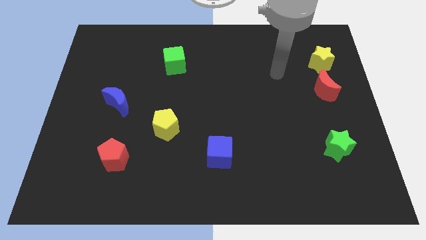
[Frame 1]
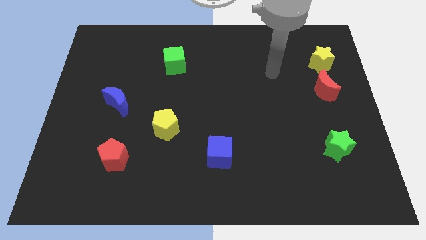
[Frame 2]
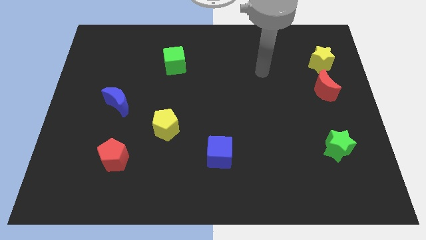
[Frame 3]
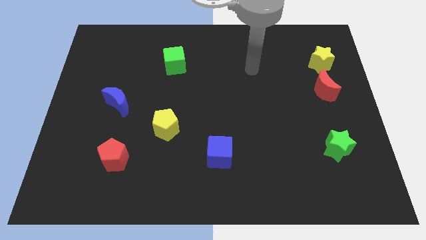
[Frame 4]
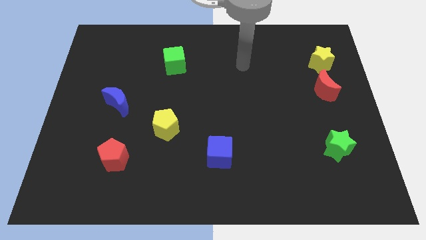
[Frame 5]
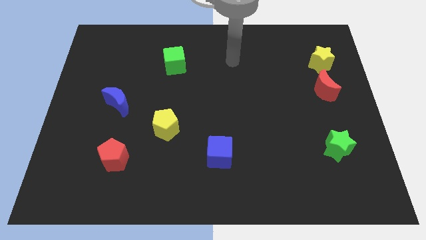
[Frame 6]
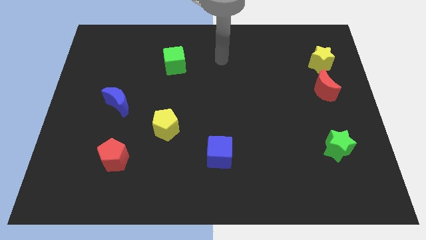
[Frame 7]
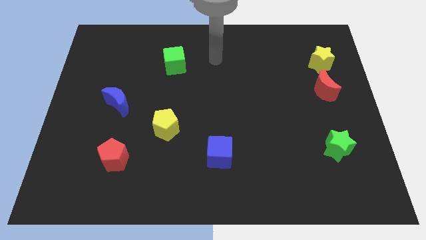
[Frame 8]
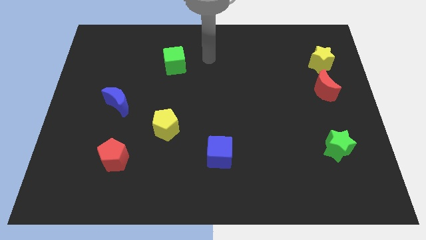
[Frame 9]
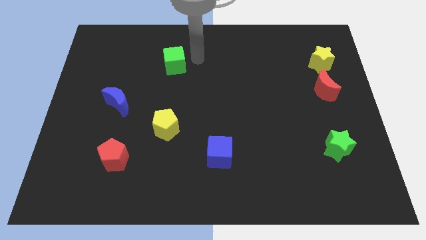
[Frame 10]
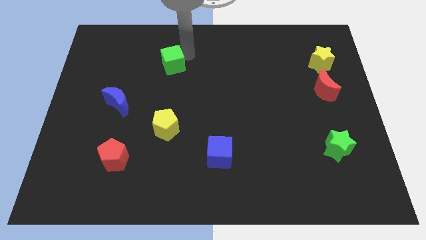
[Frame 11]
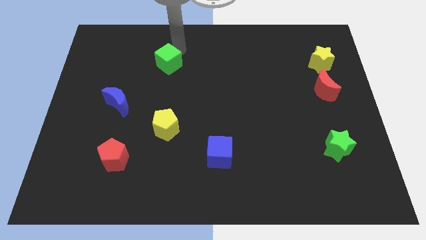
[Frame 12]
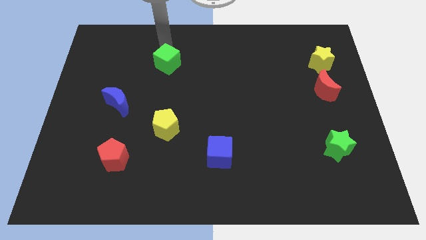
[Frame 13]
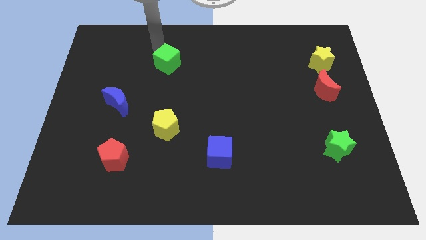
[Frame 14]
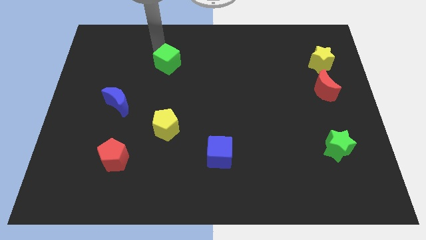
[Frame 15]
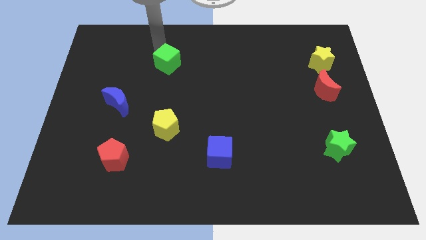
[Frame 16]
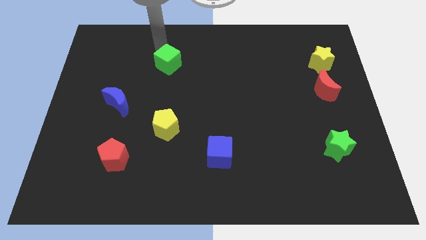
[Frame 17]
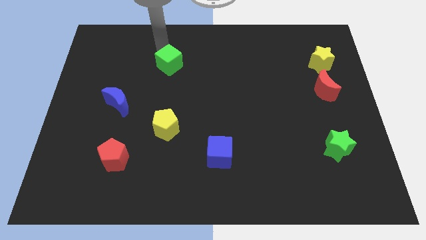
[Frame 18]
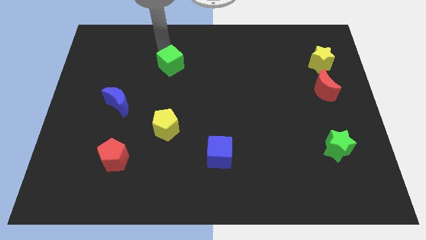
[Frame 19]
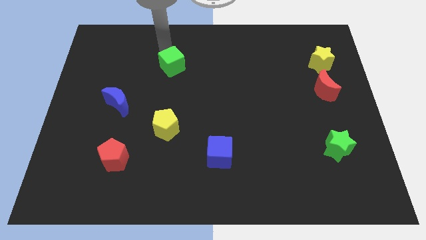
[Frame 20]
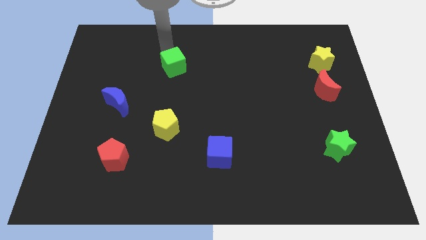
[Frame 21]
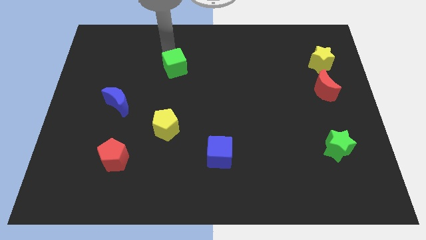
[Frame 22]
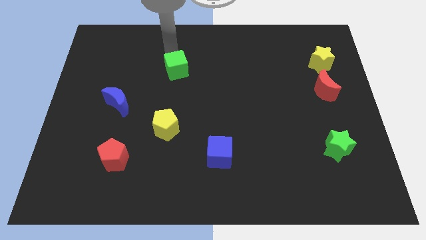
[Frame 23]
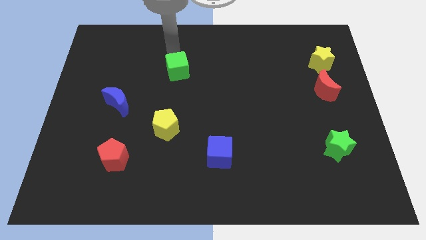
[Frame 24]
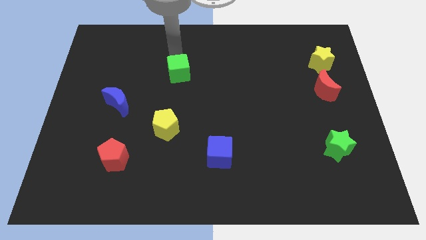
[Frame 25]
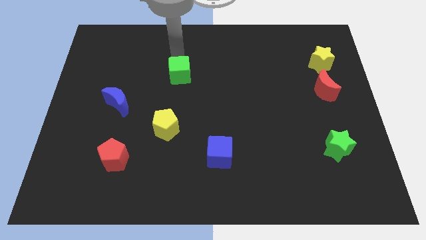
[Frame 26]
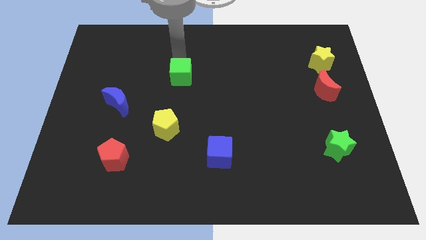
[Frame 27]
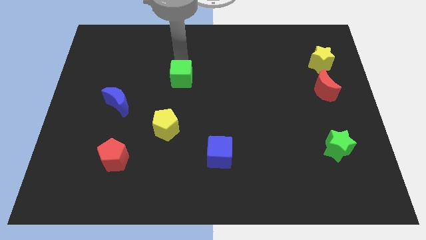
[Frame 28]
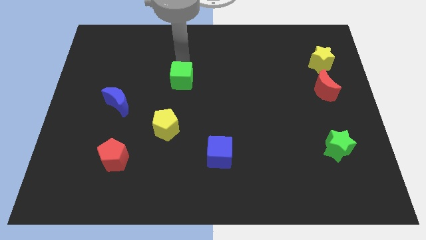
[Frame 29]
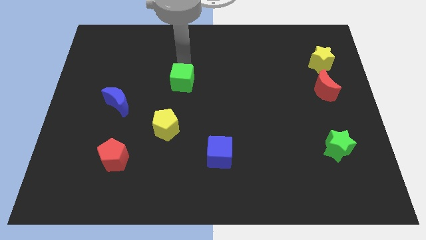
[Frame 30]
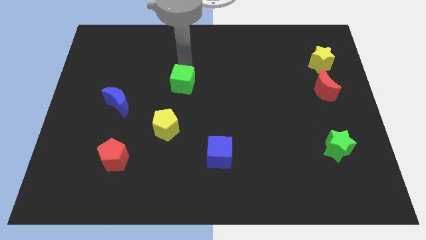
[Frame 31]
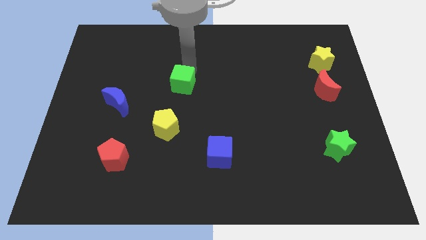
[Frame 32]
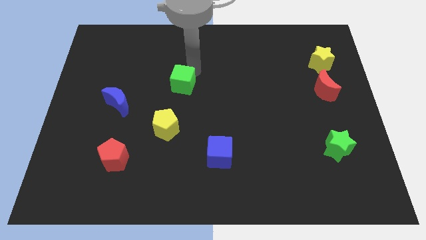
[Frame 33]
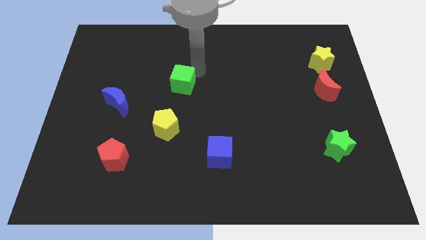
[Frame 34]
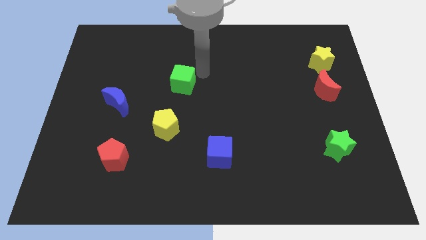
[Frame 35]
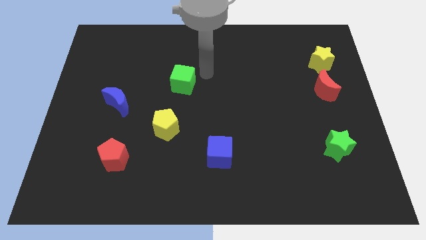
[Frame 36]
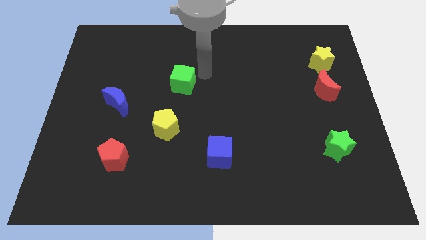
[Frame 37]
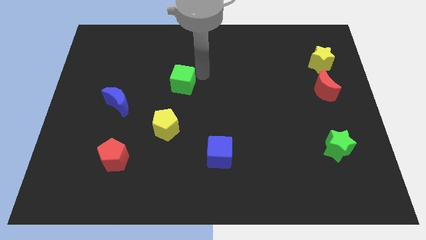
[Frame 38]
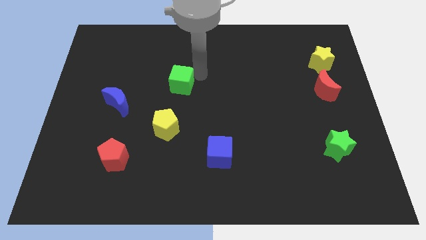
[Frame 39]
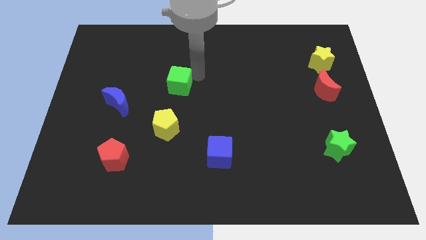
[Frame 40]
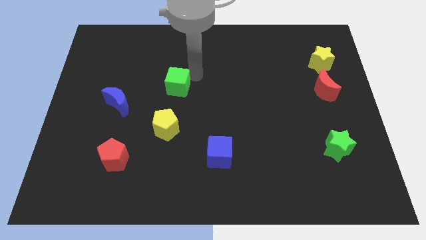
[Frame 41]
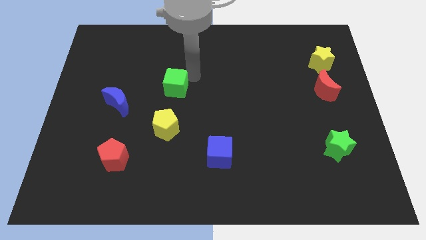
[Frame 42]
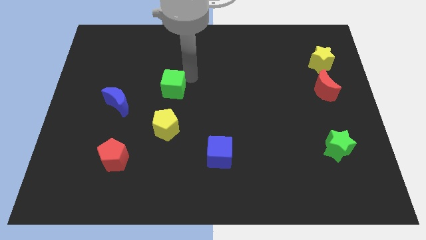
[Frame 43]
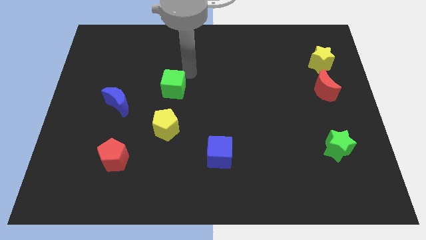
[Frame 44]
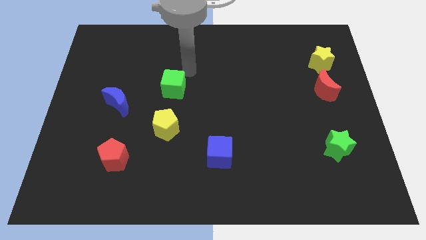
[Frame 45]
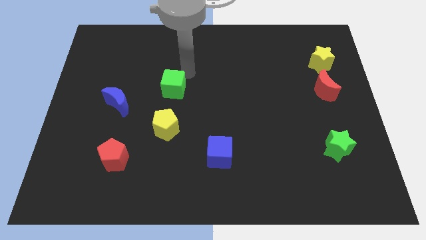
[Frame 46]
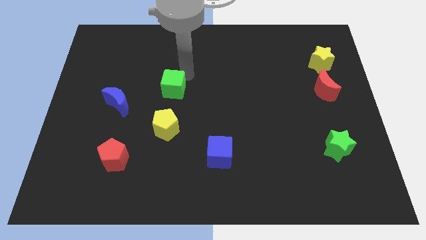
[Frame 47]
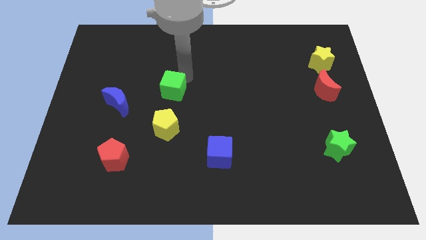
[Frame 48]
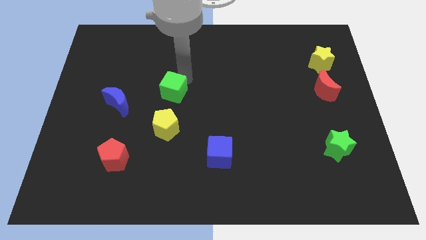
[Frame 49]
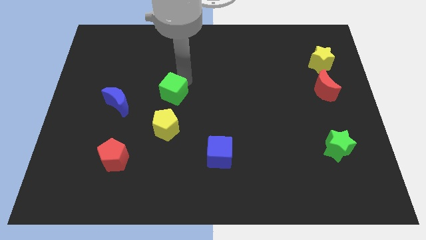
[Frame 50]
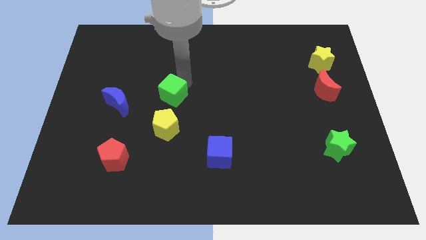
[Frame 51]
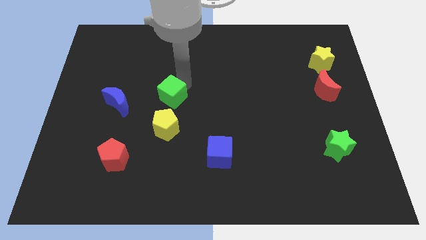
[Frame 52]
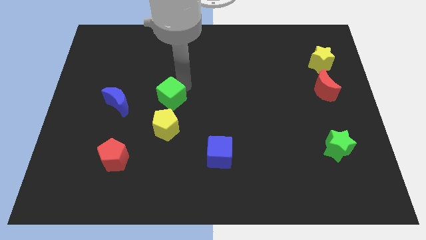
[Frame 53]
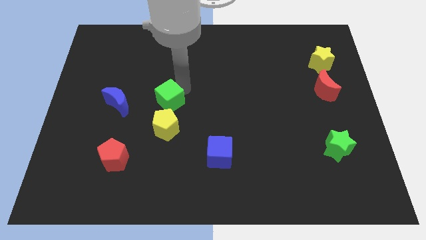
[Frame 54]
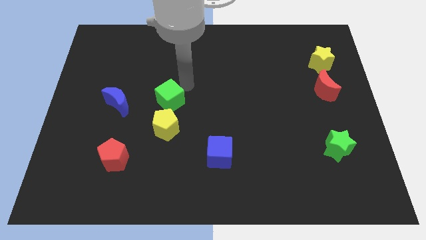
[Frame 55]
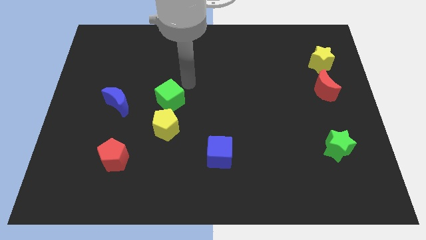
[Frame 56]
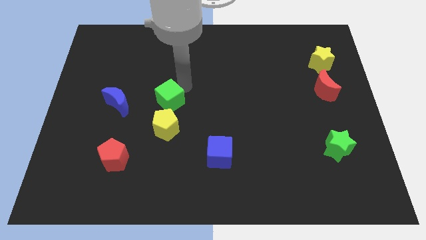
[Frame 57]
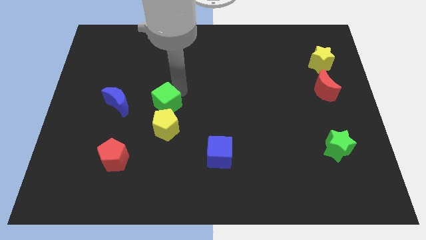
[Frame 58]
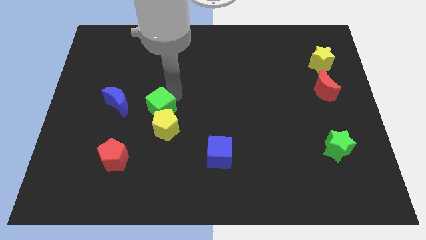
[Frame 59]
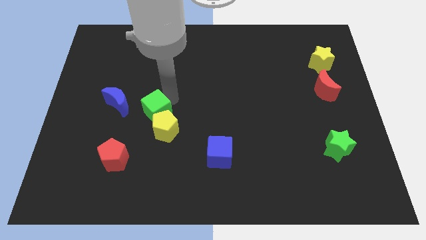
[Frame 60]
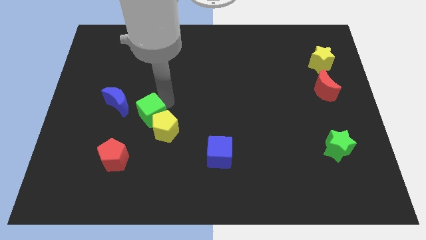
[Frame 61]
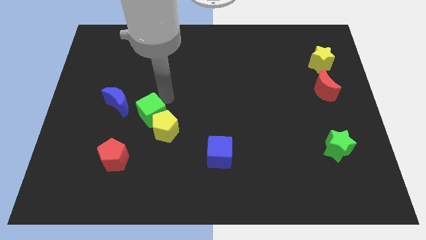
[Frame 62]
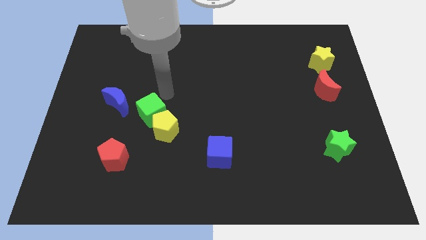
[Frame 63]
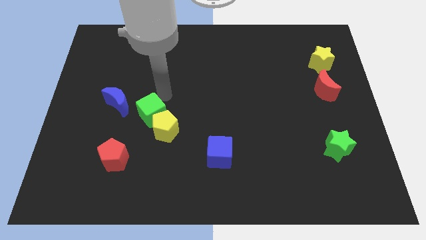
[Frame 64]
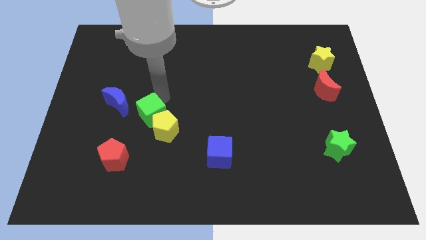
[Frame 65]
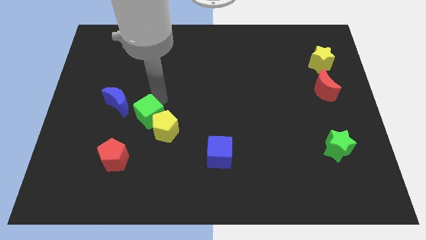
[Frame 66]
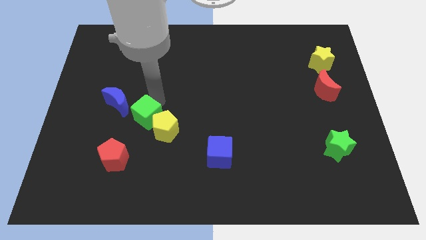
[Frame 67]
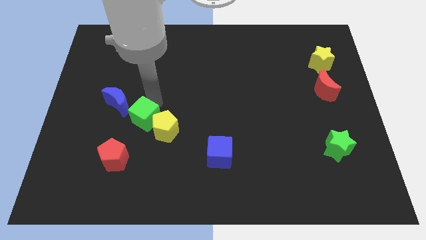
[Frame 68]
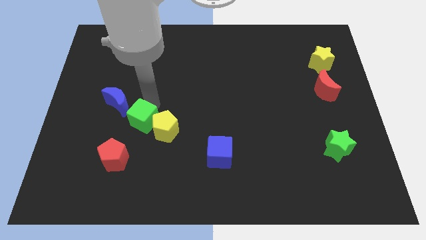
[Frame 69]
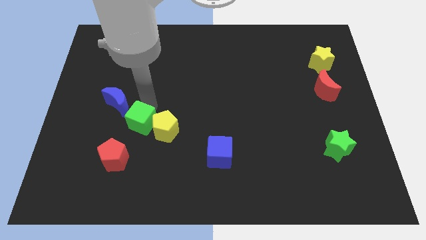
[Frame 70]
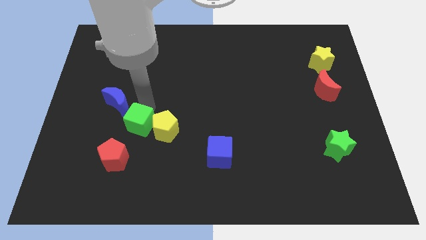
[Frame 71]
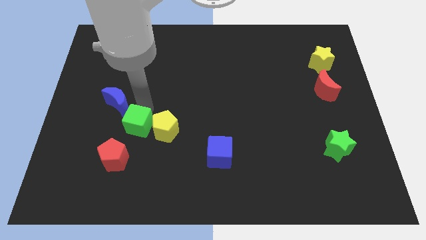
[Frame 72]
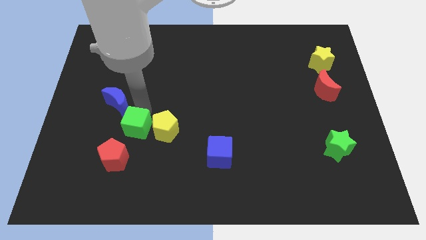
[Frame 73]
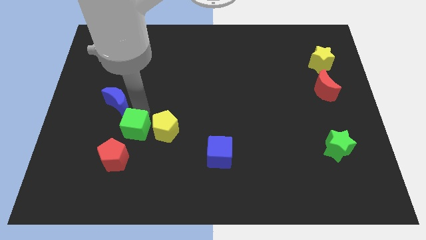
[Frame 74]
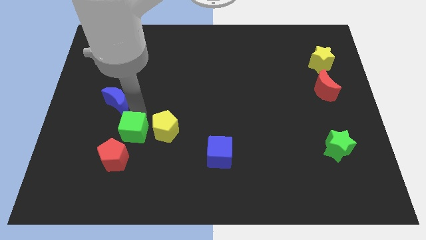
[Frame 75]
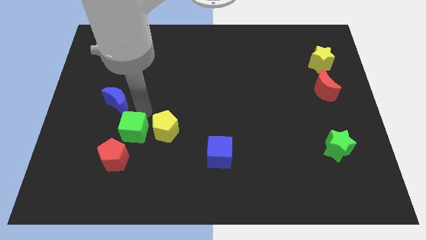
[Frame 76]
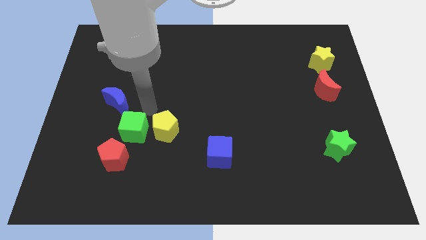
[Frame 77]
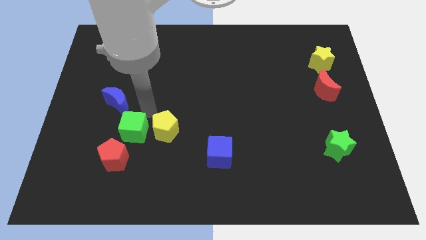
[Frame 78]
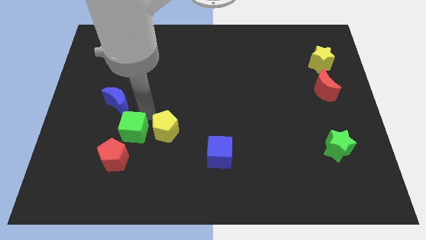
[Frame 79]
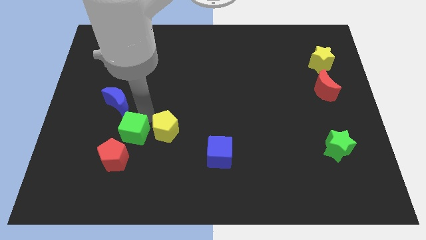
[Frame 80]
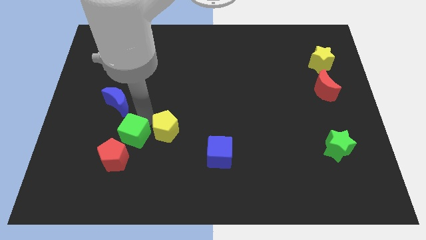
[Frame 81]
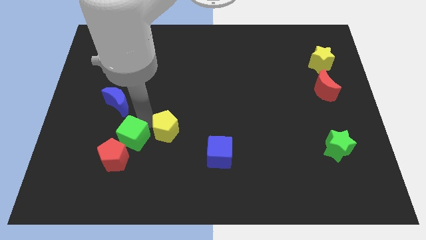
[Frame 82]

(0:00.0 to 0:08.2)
move the green cube close to the red pentagon
